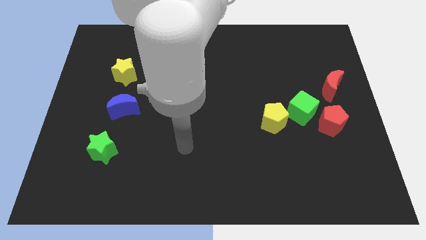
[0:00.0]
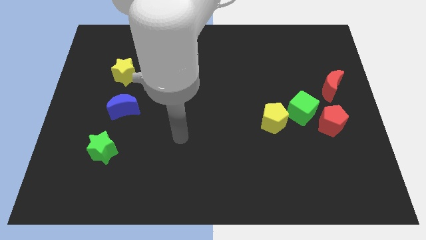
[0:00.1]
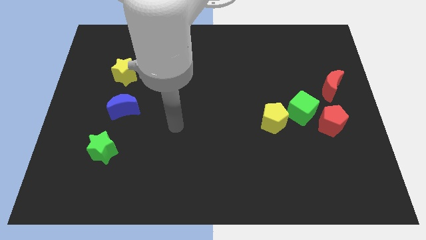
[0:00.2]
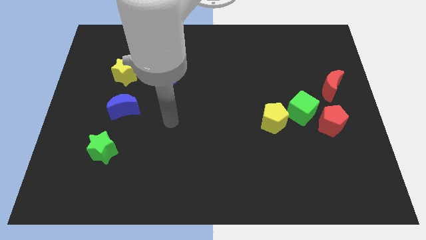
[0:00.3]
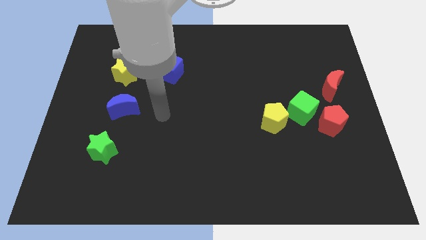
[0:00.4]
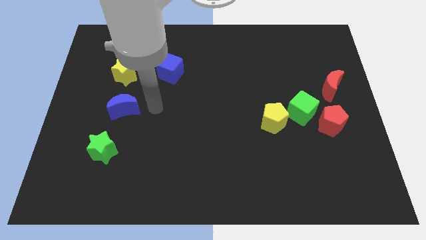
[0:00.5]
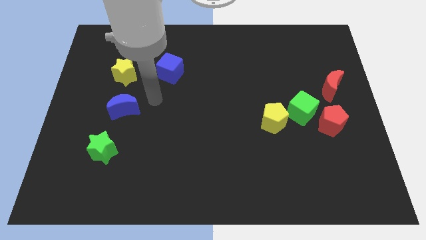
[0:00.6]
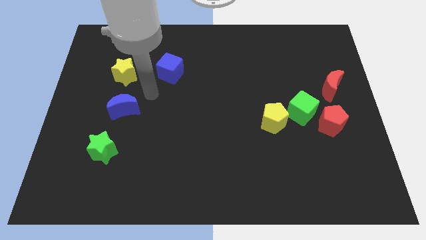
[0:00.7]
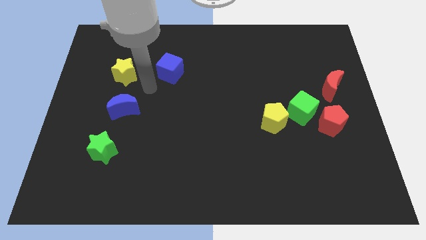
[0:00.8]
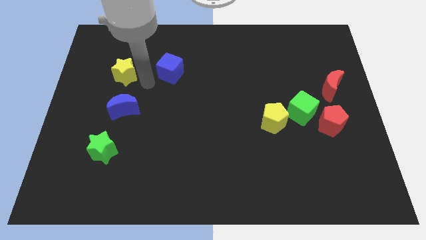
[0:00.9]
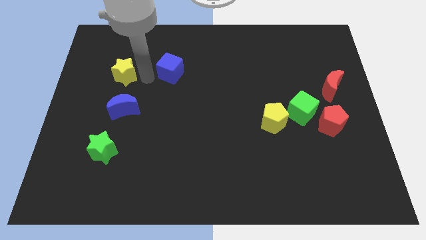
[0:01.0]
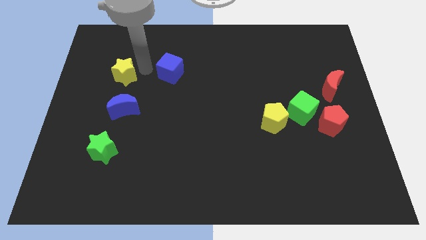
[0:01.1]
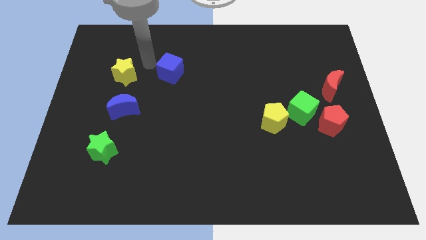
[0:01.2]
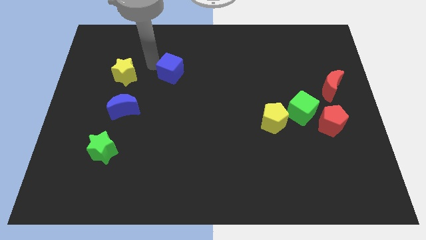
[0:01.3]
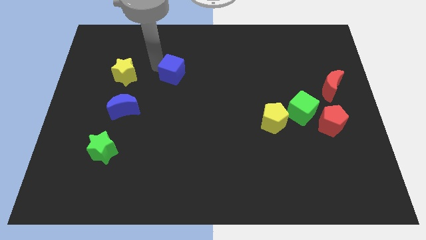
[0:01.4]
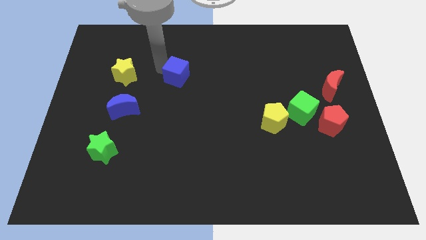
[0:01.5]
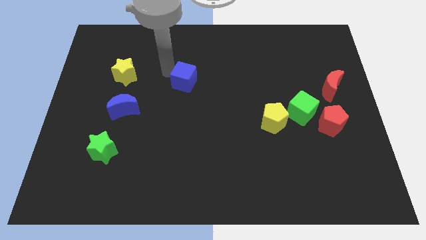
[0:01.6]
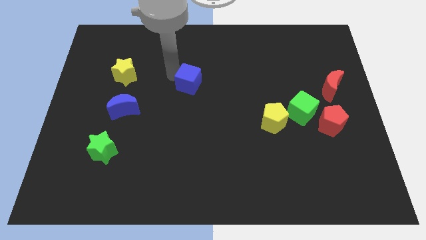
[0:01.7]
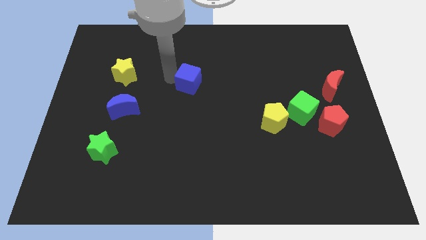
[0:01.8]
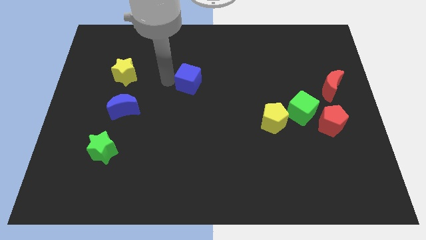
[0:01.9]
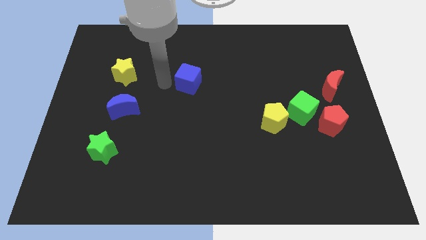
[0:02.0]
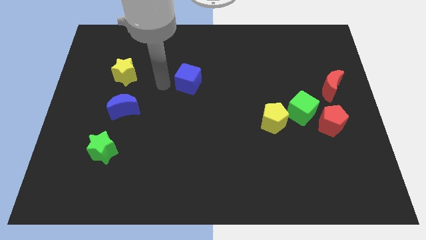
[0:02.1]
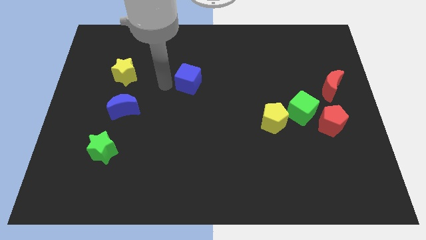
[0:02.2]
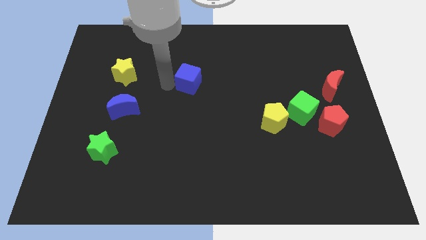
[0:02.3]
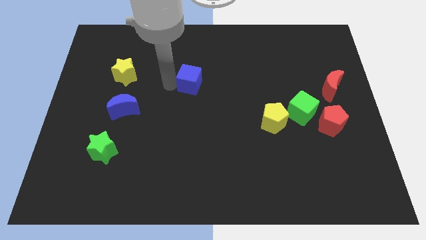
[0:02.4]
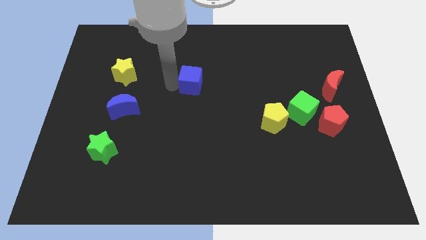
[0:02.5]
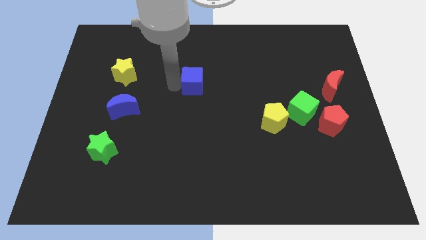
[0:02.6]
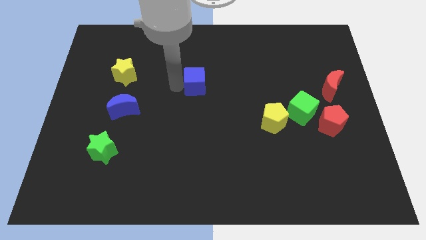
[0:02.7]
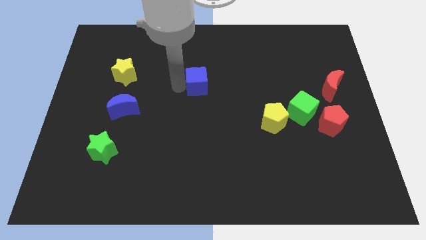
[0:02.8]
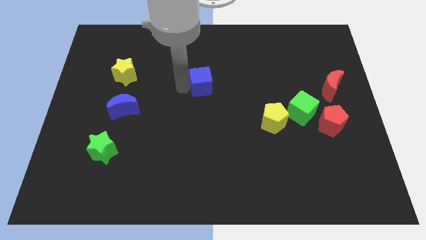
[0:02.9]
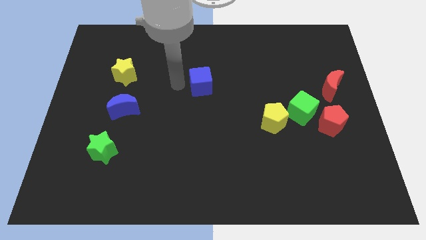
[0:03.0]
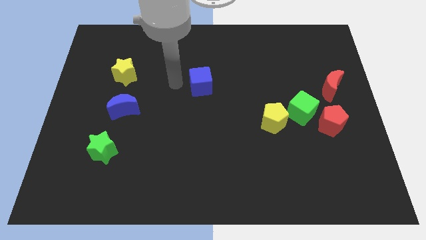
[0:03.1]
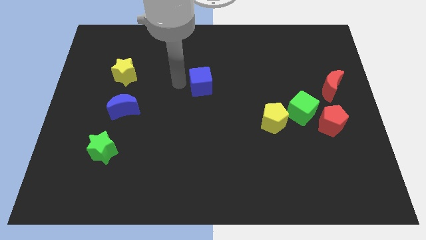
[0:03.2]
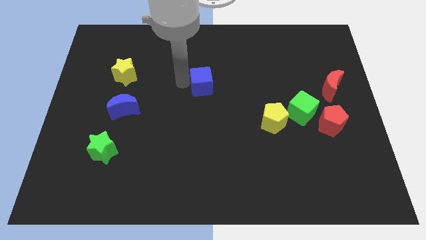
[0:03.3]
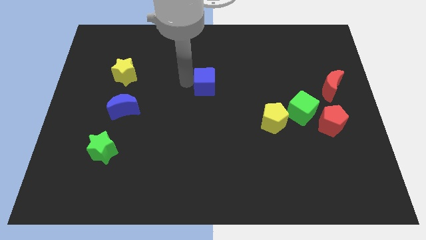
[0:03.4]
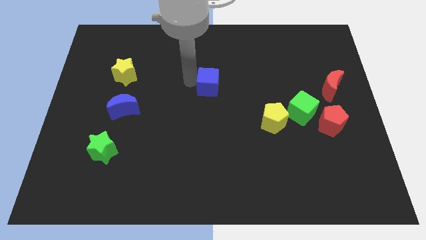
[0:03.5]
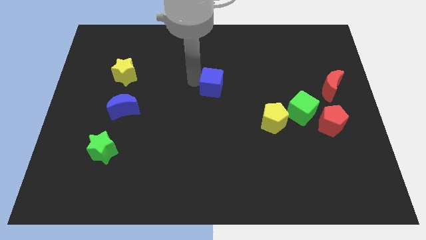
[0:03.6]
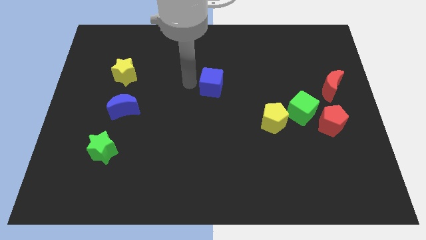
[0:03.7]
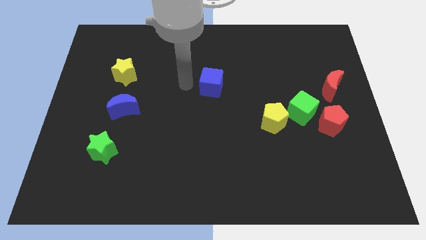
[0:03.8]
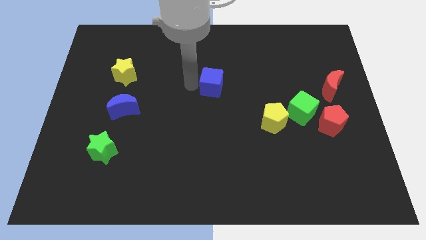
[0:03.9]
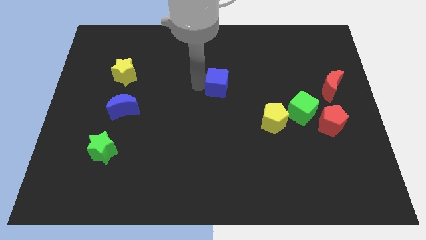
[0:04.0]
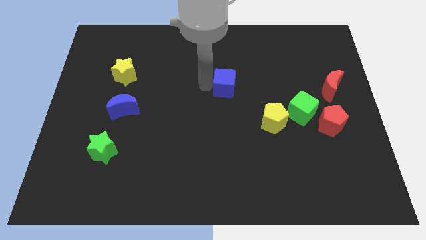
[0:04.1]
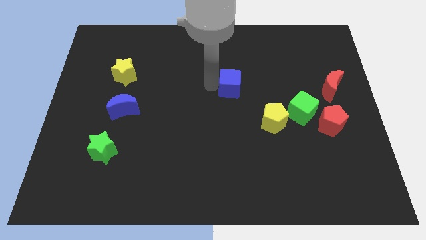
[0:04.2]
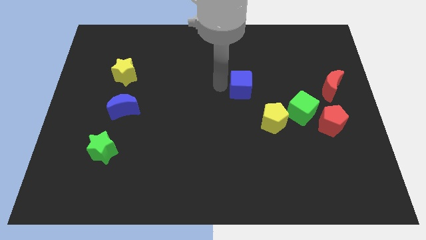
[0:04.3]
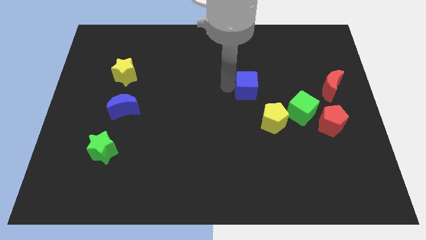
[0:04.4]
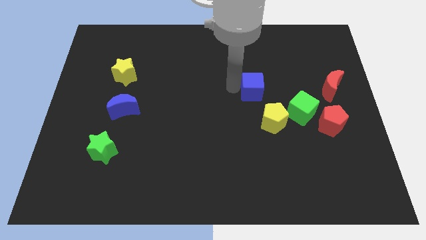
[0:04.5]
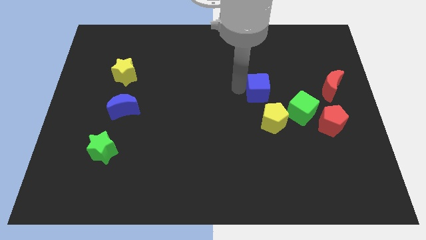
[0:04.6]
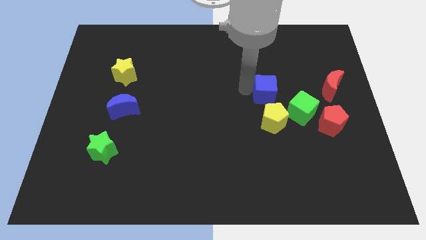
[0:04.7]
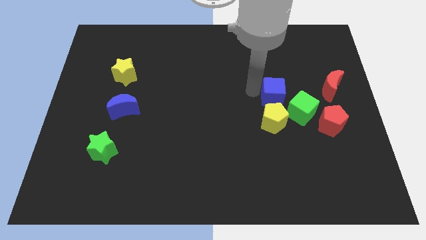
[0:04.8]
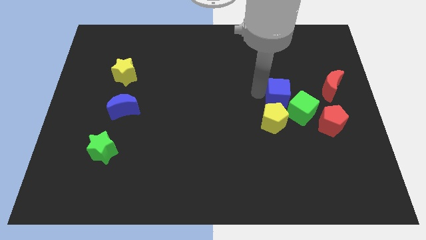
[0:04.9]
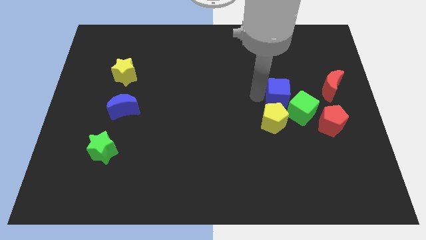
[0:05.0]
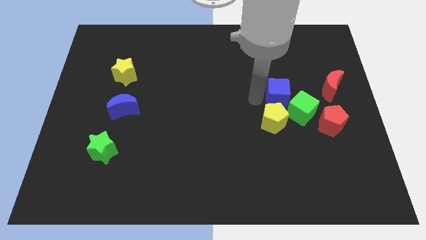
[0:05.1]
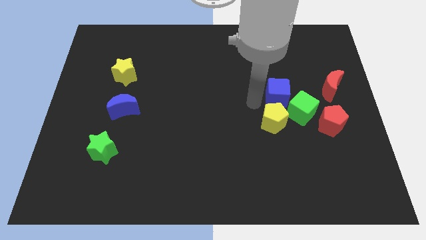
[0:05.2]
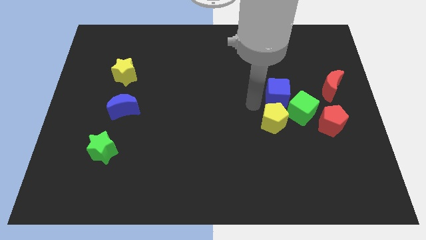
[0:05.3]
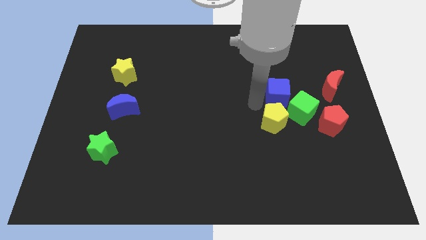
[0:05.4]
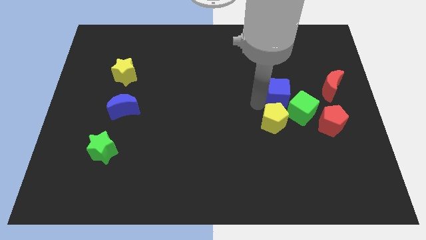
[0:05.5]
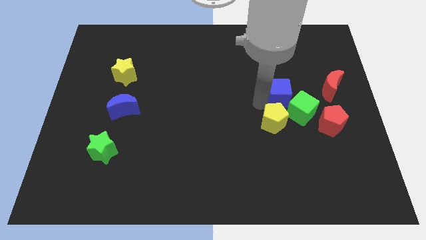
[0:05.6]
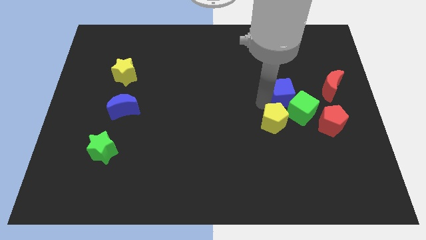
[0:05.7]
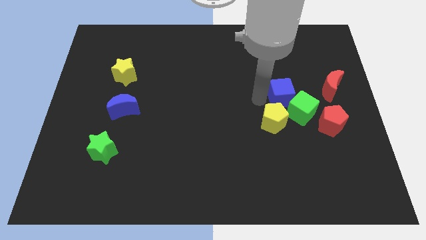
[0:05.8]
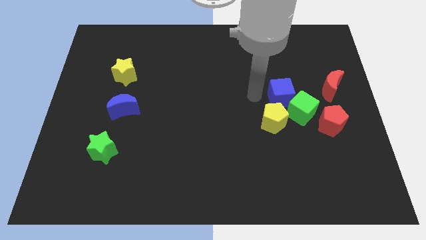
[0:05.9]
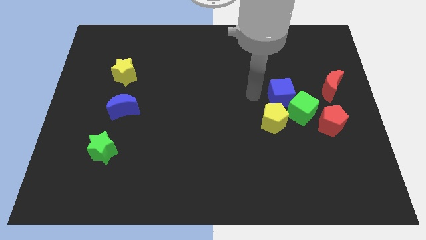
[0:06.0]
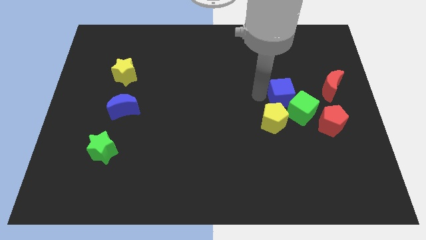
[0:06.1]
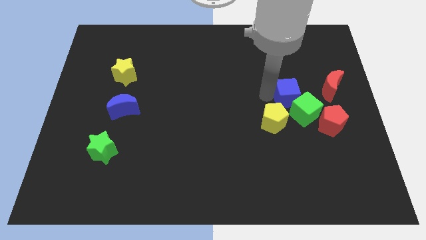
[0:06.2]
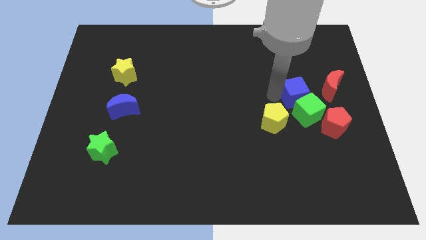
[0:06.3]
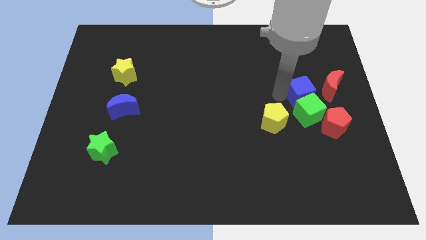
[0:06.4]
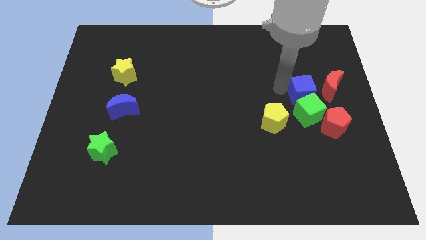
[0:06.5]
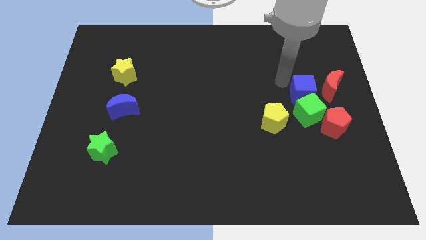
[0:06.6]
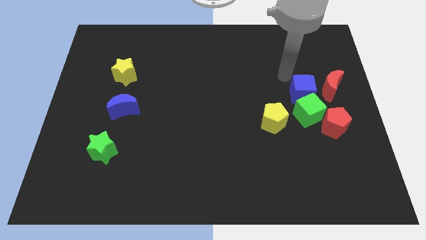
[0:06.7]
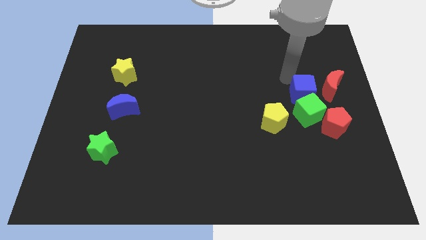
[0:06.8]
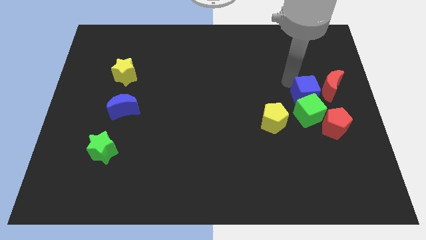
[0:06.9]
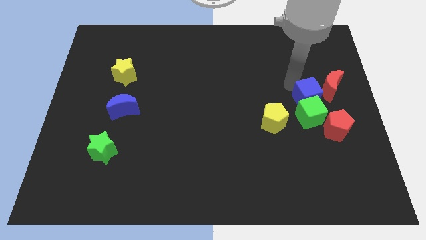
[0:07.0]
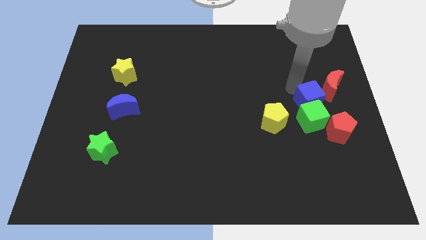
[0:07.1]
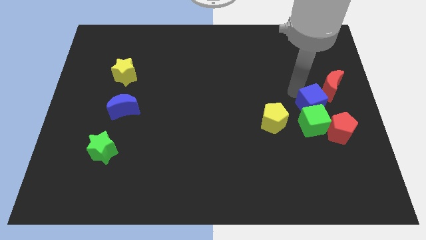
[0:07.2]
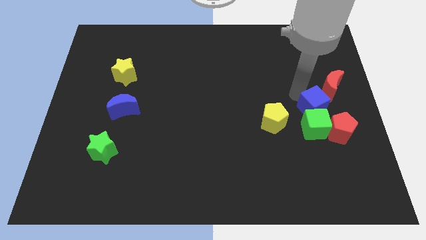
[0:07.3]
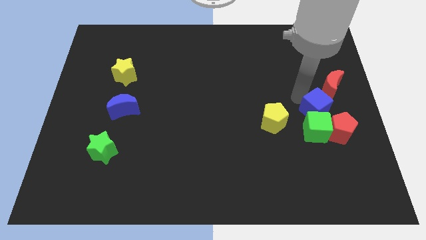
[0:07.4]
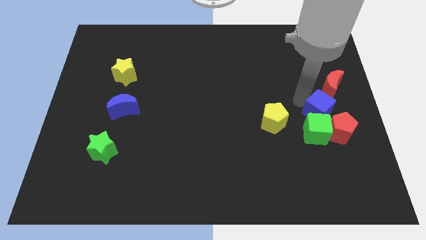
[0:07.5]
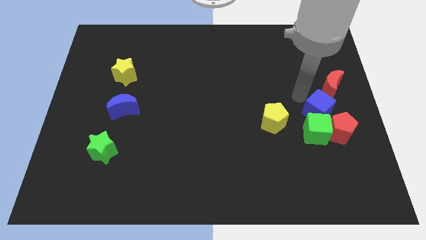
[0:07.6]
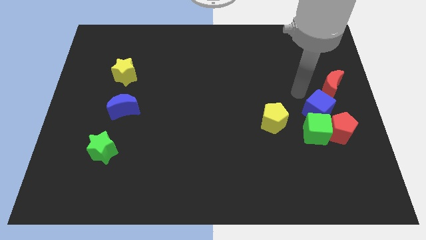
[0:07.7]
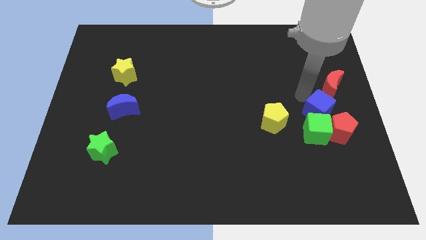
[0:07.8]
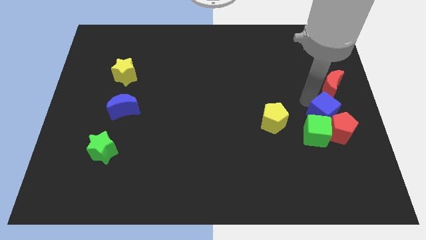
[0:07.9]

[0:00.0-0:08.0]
move the blue cube to the red pentagon
